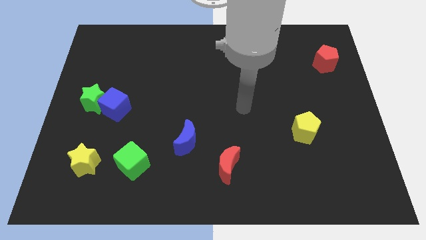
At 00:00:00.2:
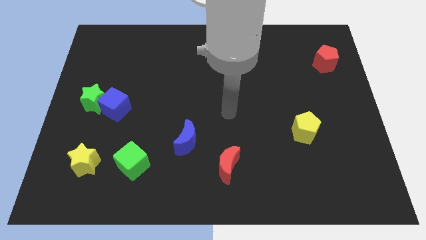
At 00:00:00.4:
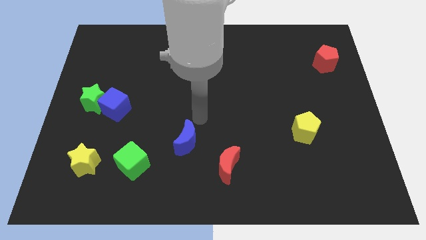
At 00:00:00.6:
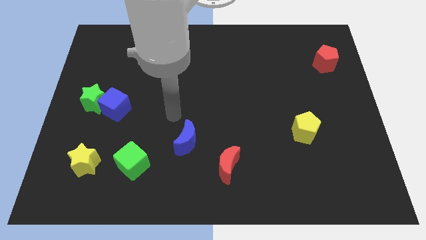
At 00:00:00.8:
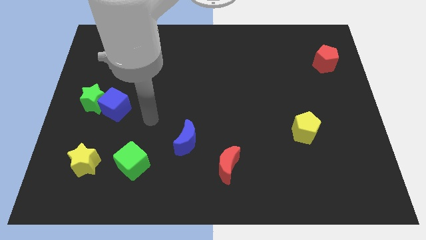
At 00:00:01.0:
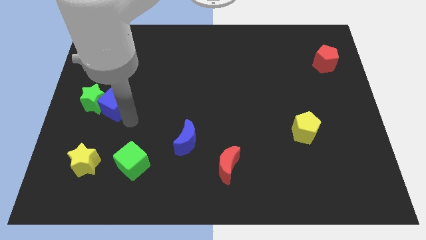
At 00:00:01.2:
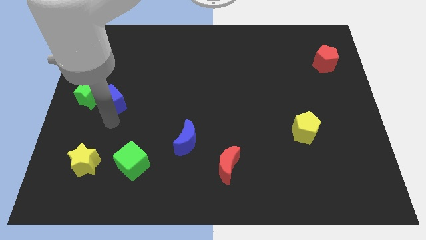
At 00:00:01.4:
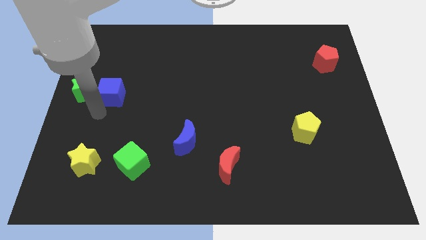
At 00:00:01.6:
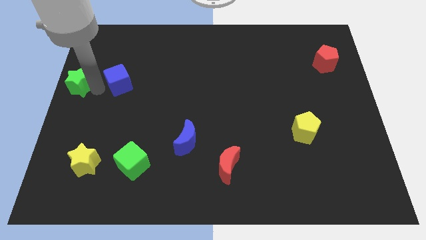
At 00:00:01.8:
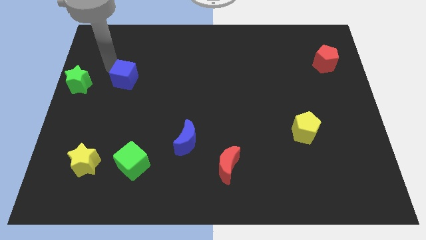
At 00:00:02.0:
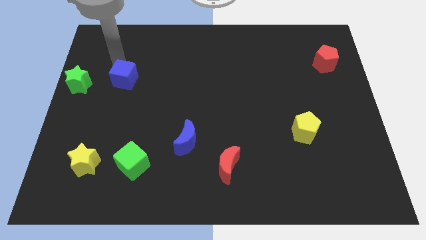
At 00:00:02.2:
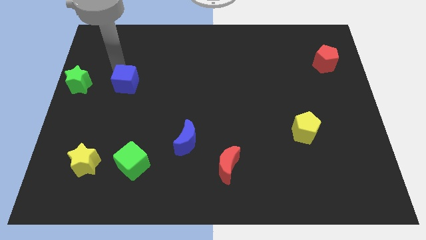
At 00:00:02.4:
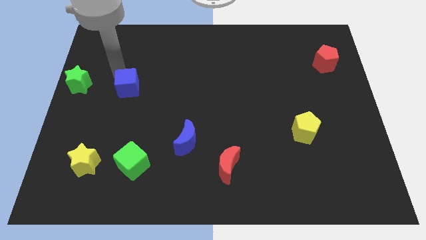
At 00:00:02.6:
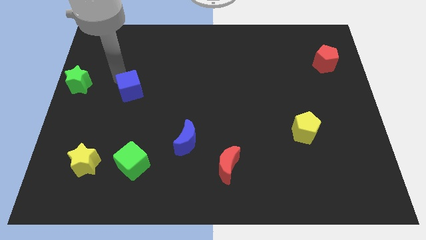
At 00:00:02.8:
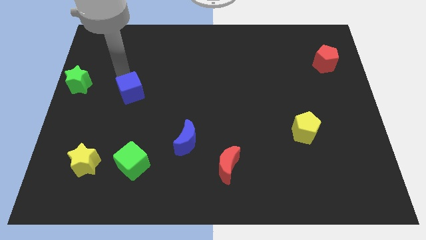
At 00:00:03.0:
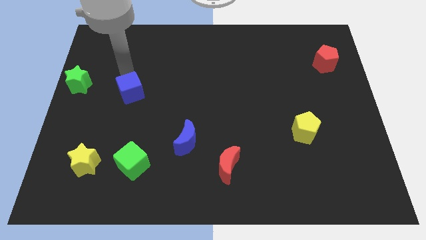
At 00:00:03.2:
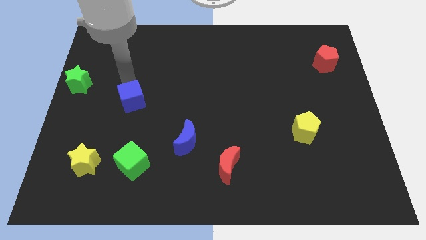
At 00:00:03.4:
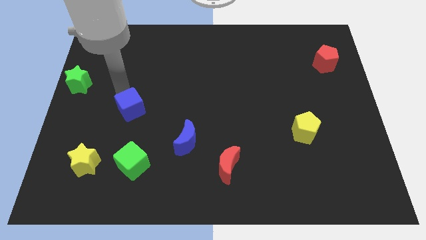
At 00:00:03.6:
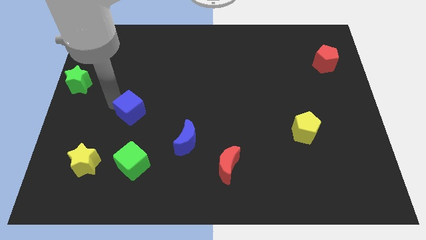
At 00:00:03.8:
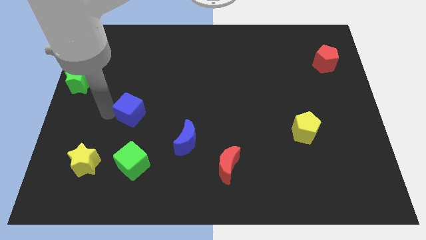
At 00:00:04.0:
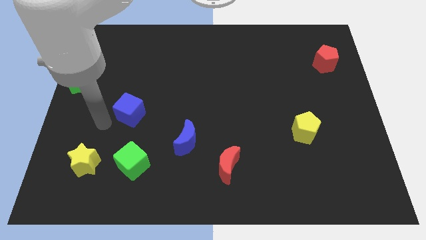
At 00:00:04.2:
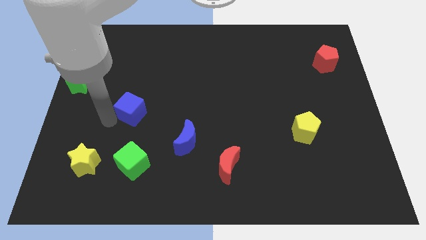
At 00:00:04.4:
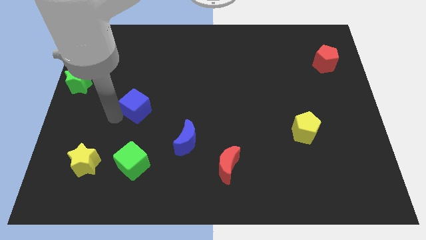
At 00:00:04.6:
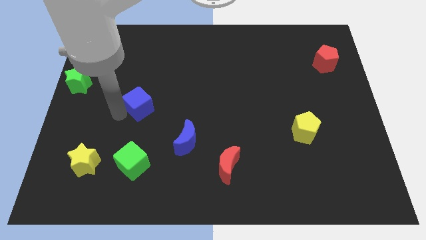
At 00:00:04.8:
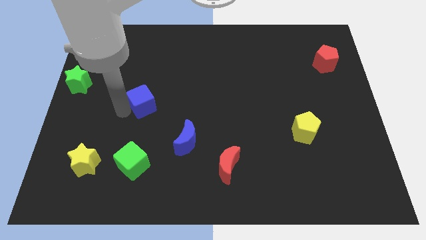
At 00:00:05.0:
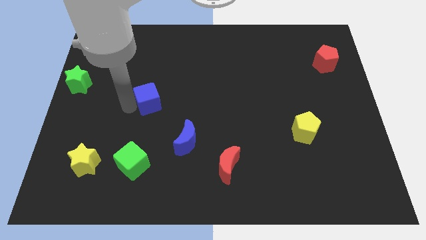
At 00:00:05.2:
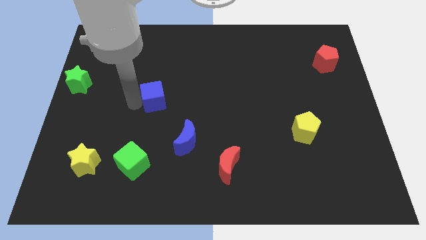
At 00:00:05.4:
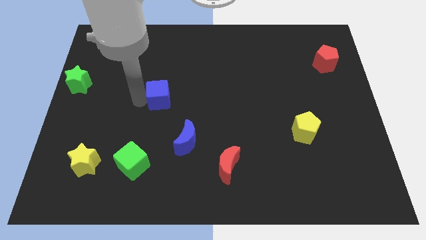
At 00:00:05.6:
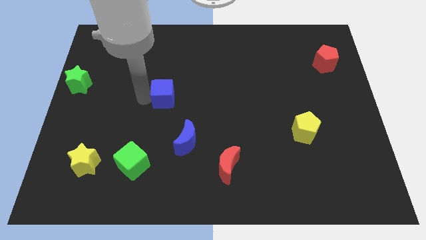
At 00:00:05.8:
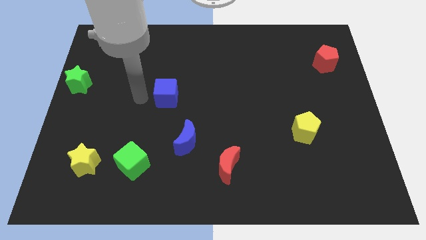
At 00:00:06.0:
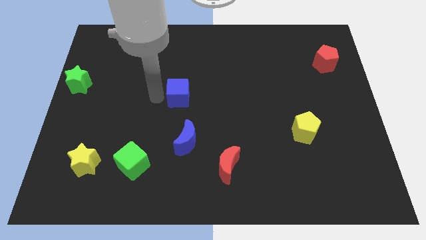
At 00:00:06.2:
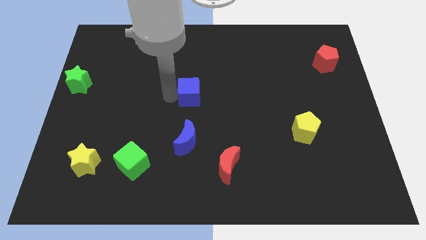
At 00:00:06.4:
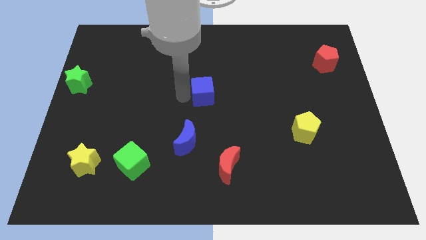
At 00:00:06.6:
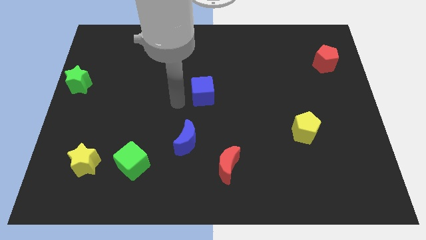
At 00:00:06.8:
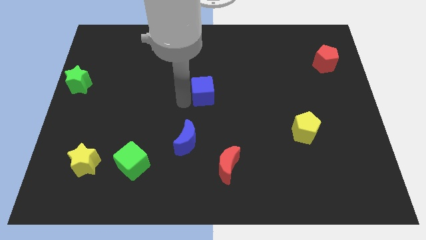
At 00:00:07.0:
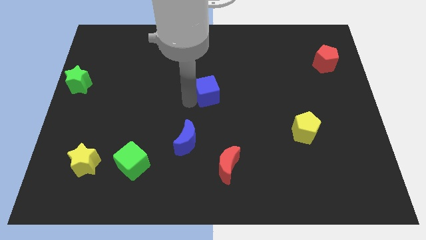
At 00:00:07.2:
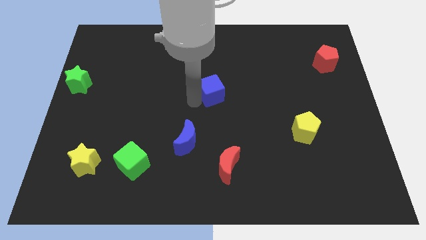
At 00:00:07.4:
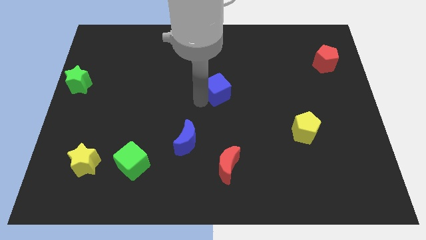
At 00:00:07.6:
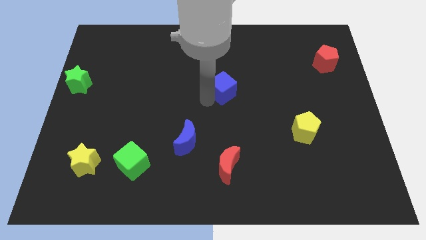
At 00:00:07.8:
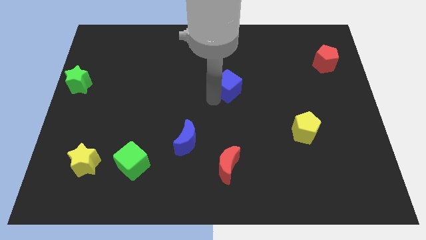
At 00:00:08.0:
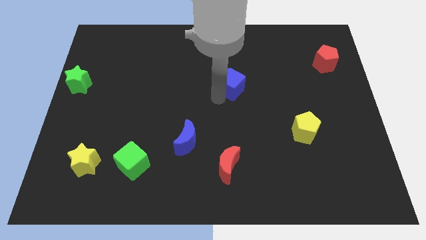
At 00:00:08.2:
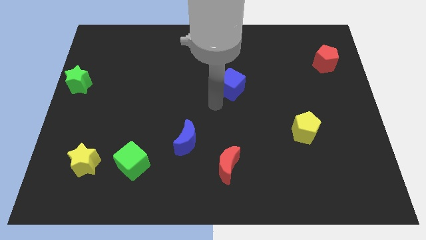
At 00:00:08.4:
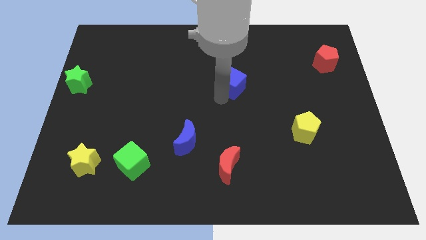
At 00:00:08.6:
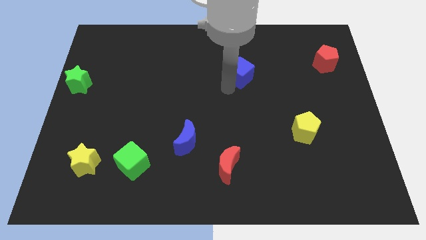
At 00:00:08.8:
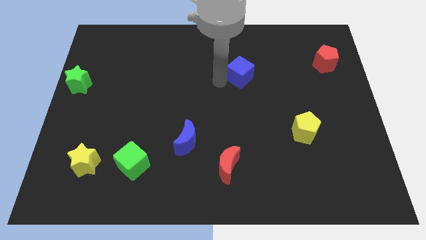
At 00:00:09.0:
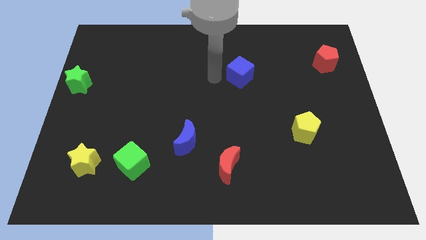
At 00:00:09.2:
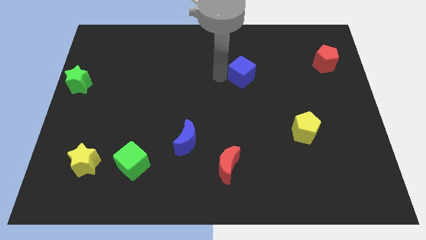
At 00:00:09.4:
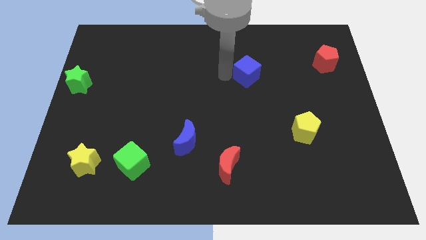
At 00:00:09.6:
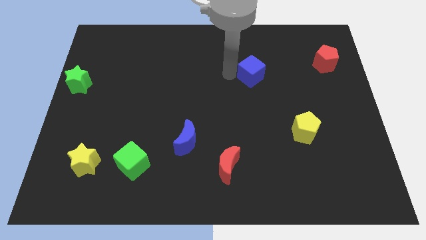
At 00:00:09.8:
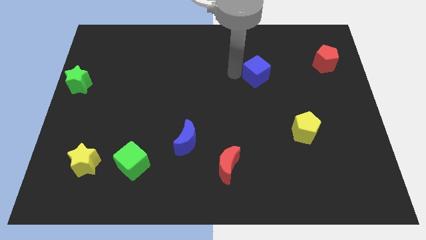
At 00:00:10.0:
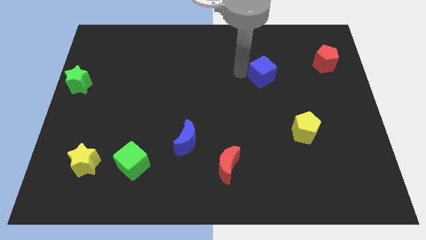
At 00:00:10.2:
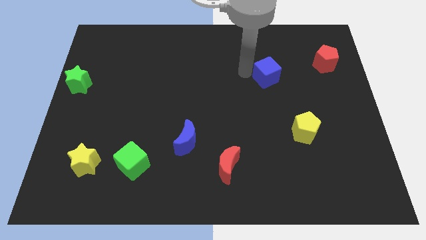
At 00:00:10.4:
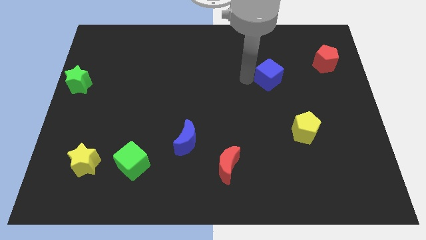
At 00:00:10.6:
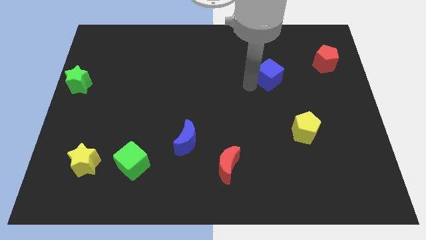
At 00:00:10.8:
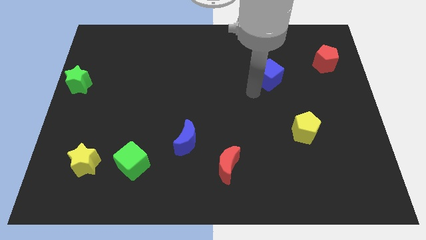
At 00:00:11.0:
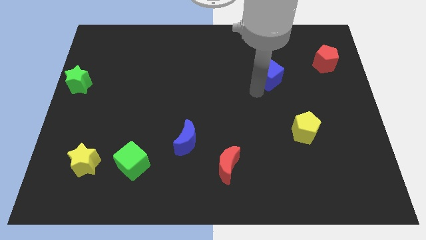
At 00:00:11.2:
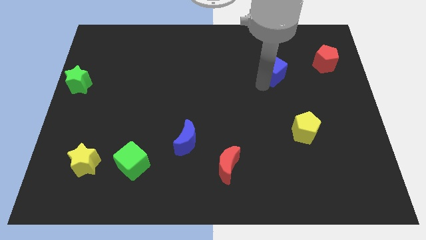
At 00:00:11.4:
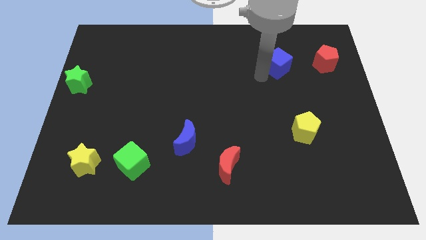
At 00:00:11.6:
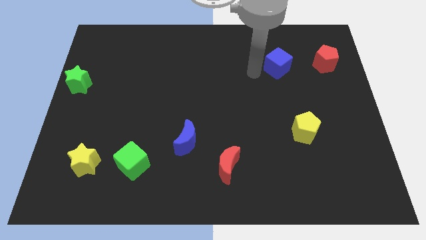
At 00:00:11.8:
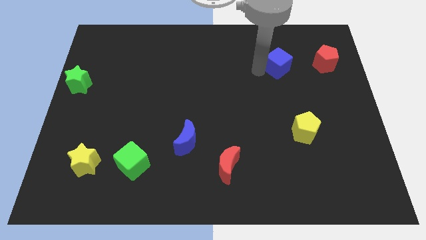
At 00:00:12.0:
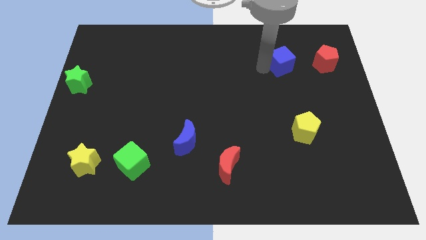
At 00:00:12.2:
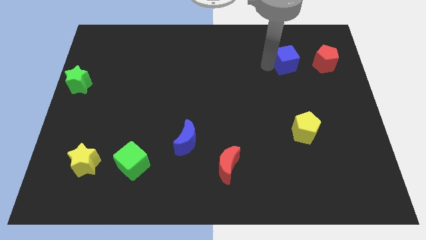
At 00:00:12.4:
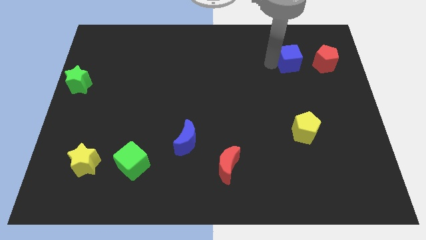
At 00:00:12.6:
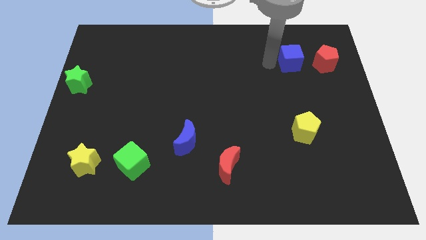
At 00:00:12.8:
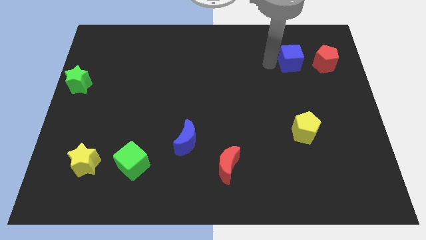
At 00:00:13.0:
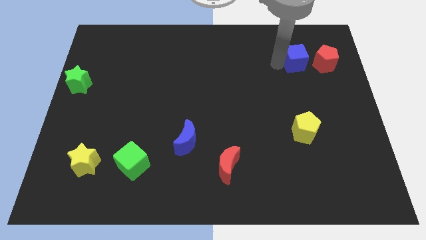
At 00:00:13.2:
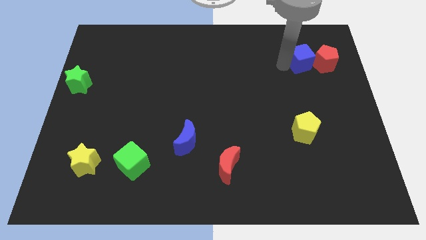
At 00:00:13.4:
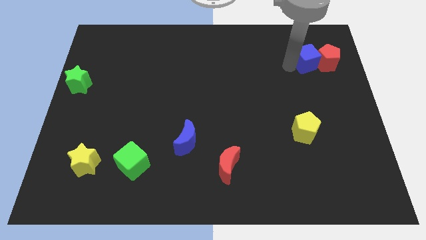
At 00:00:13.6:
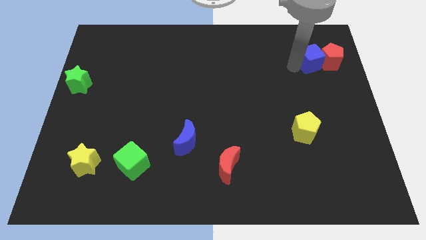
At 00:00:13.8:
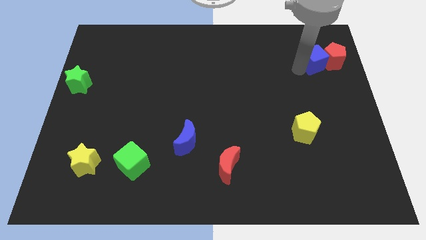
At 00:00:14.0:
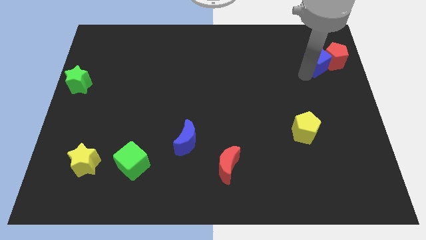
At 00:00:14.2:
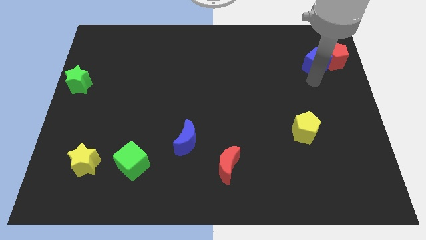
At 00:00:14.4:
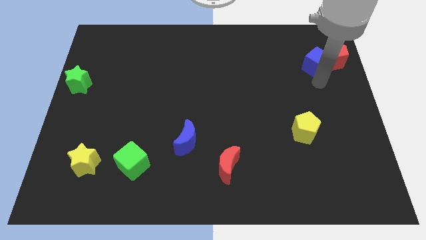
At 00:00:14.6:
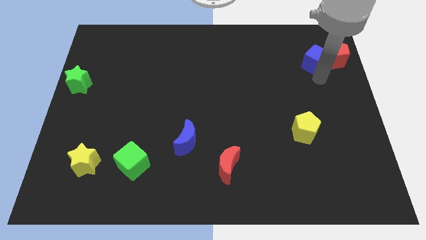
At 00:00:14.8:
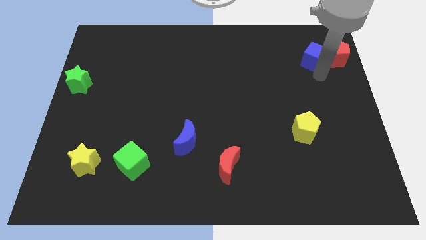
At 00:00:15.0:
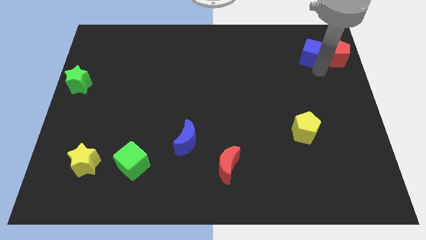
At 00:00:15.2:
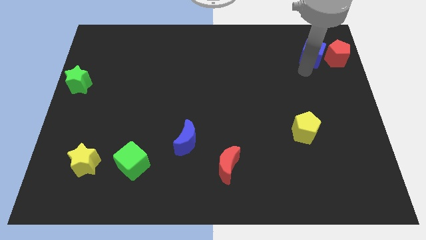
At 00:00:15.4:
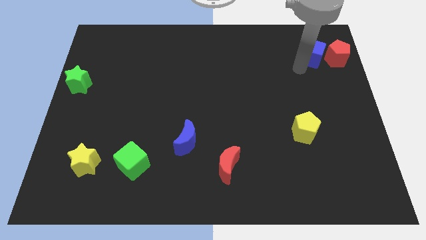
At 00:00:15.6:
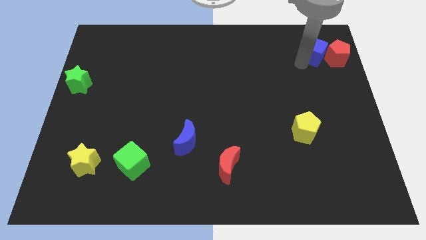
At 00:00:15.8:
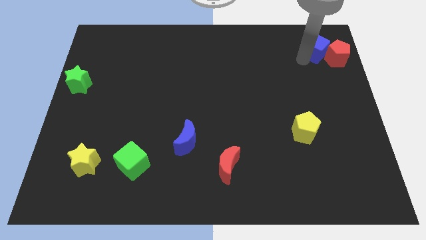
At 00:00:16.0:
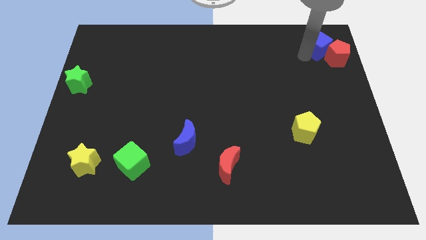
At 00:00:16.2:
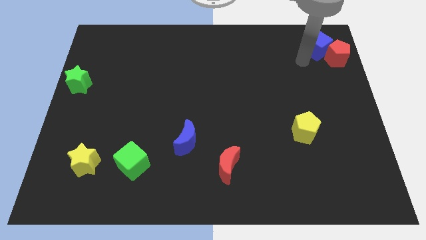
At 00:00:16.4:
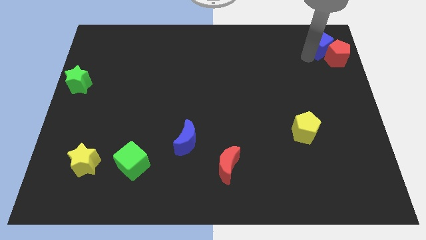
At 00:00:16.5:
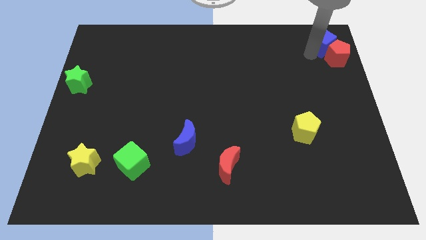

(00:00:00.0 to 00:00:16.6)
move the blue cube to the top right
